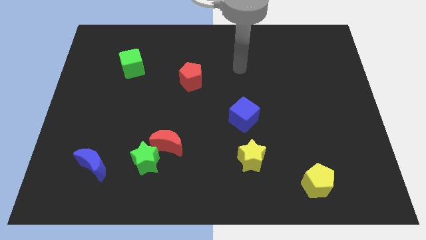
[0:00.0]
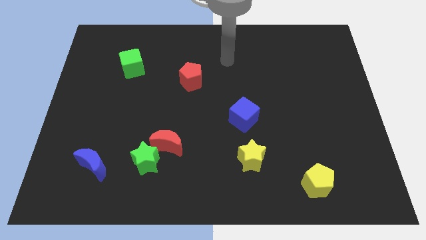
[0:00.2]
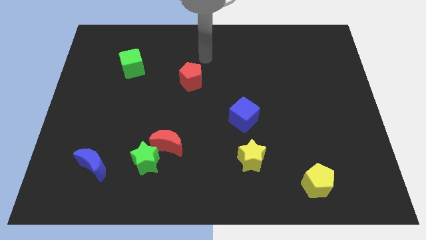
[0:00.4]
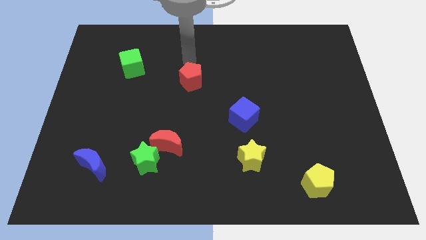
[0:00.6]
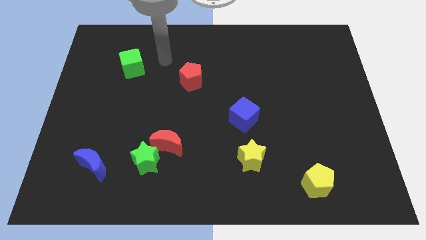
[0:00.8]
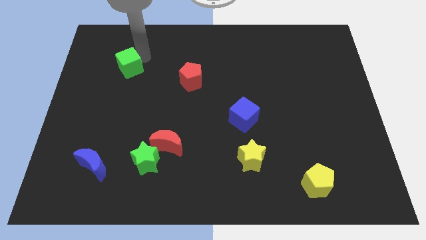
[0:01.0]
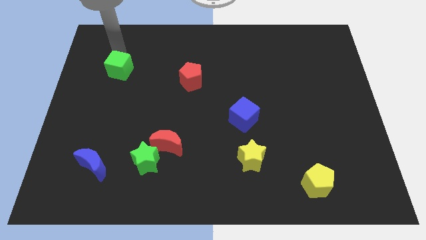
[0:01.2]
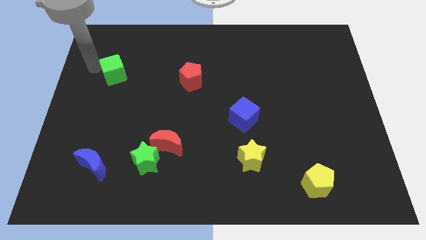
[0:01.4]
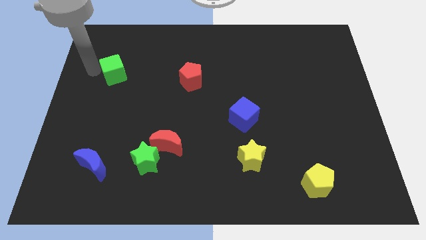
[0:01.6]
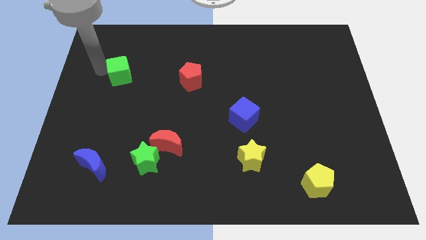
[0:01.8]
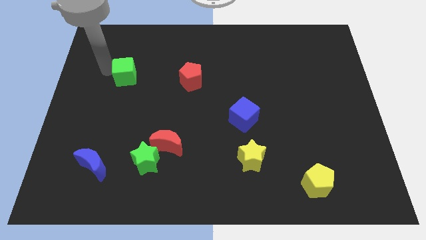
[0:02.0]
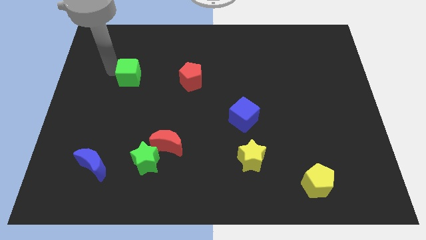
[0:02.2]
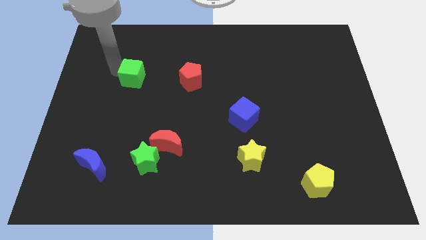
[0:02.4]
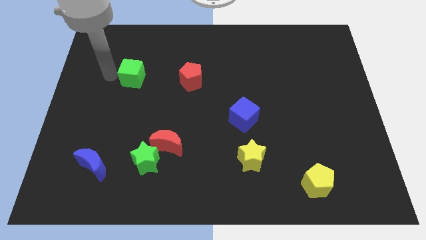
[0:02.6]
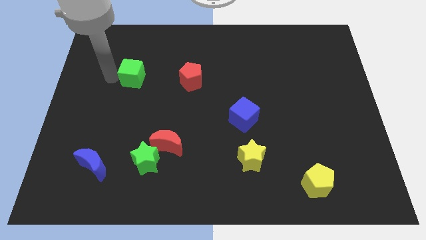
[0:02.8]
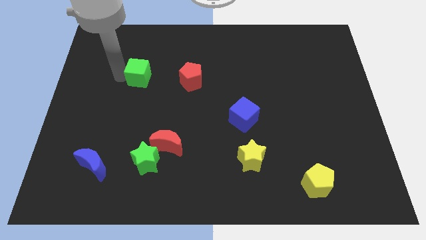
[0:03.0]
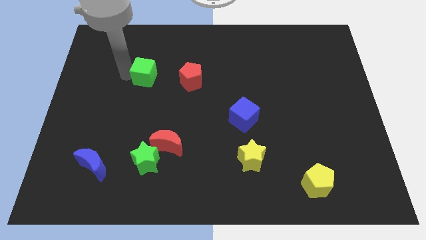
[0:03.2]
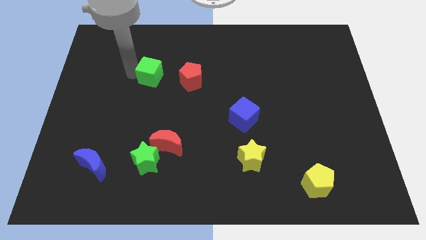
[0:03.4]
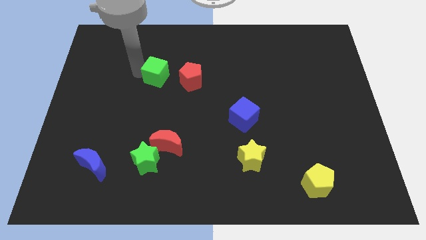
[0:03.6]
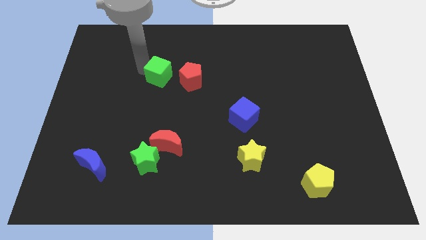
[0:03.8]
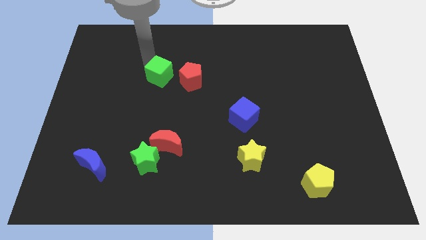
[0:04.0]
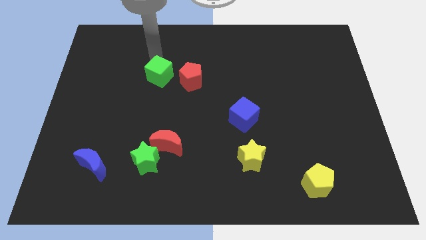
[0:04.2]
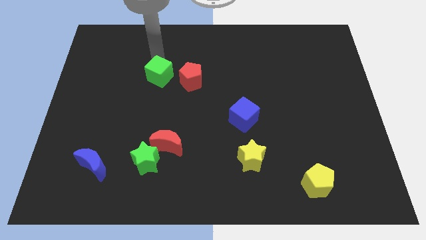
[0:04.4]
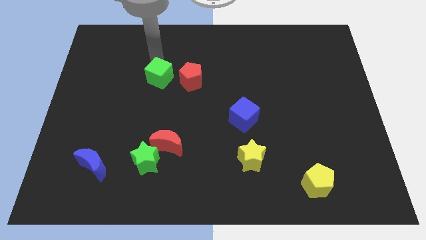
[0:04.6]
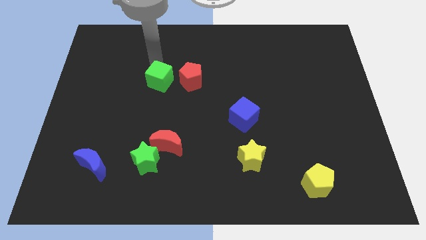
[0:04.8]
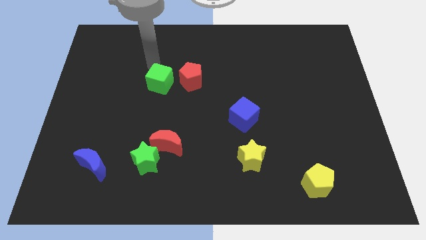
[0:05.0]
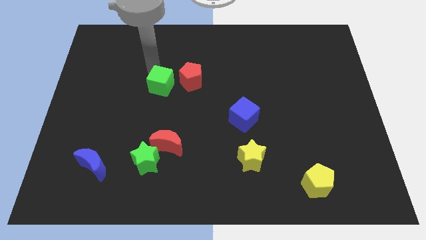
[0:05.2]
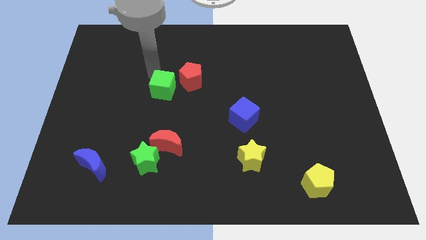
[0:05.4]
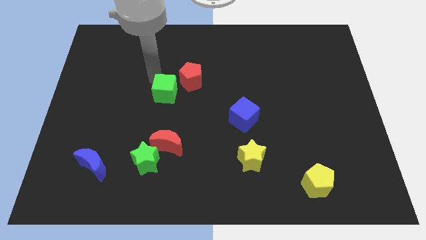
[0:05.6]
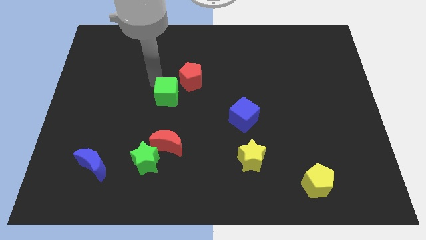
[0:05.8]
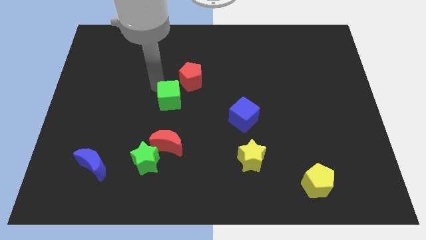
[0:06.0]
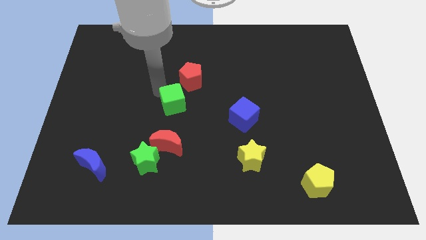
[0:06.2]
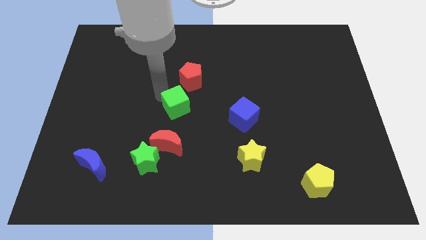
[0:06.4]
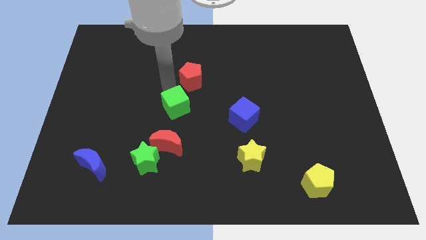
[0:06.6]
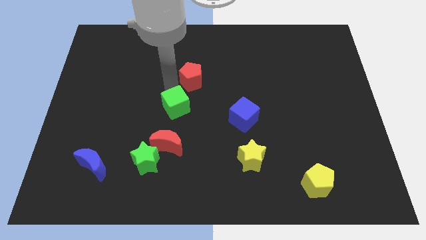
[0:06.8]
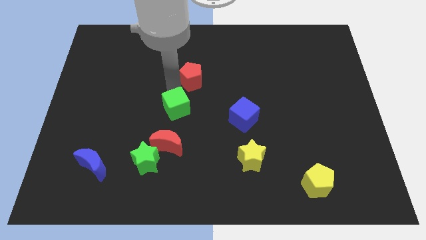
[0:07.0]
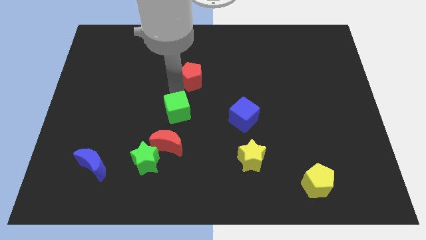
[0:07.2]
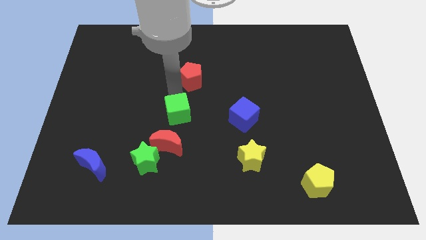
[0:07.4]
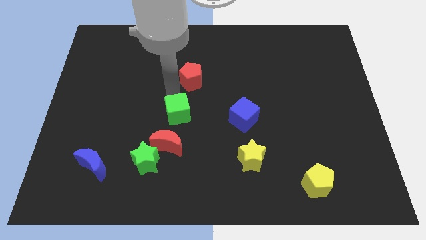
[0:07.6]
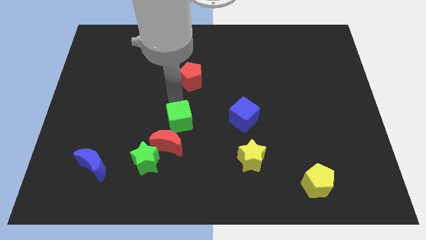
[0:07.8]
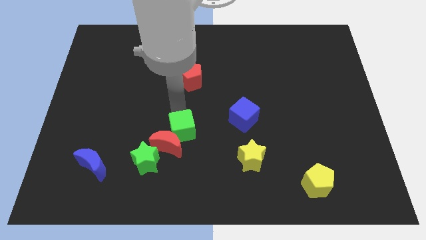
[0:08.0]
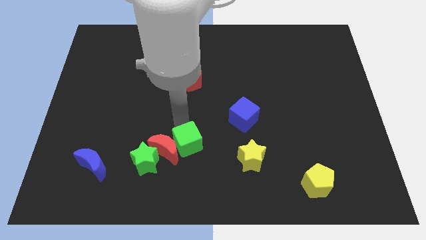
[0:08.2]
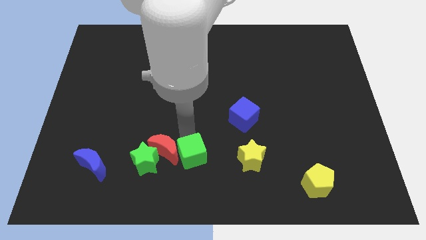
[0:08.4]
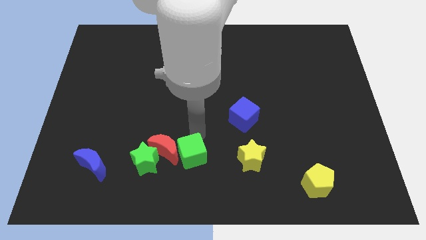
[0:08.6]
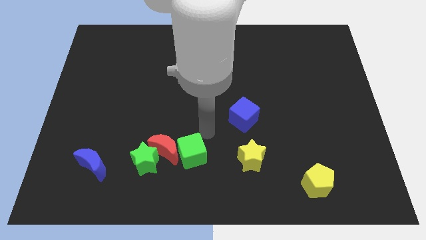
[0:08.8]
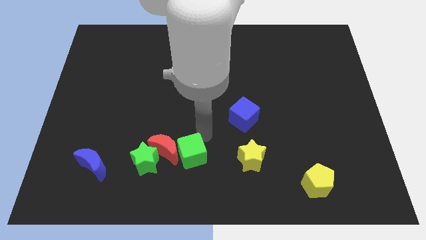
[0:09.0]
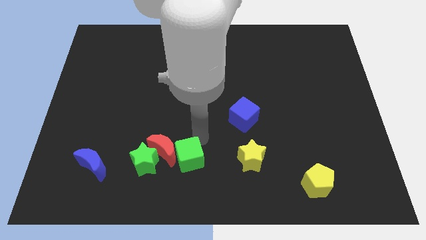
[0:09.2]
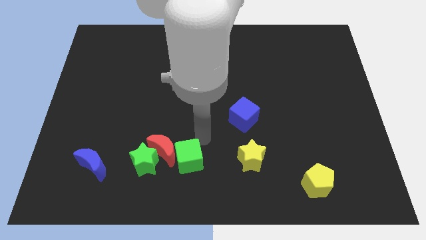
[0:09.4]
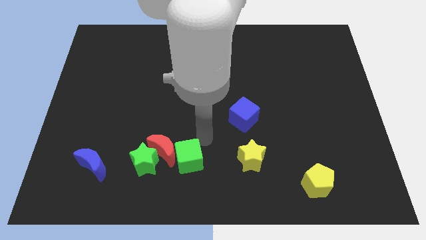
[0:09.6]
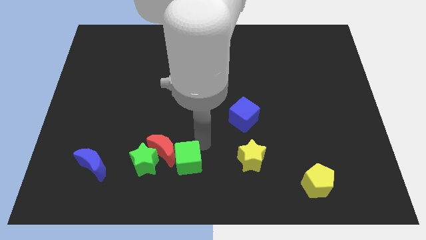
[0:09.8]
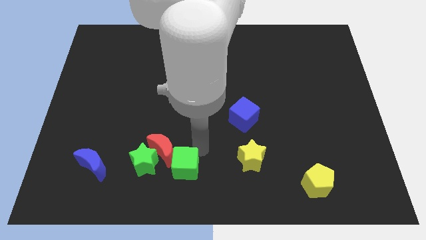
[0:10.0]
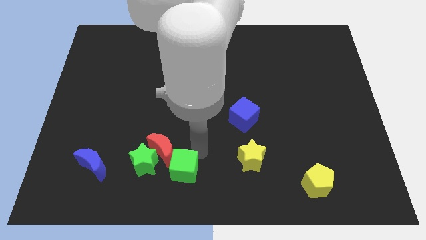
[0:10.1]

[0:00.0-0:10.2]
slide the green cube diagonally down and to the right of the green star

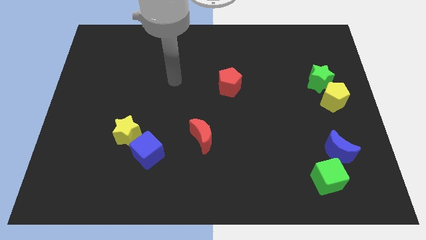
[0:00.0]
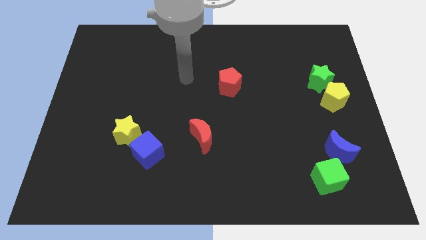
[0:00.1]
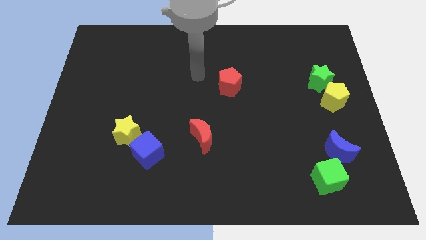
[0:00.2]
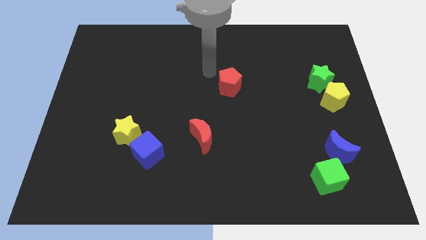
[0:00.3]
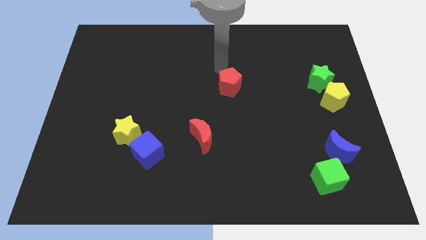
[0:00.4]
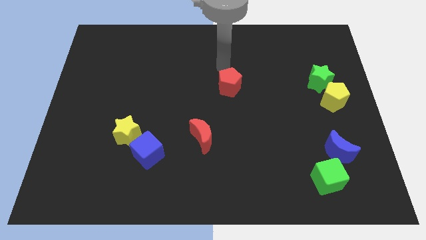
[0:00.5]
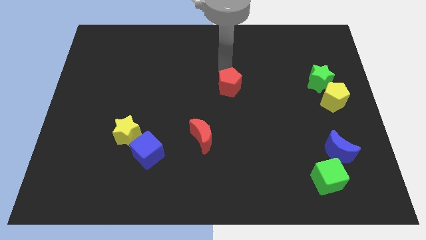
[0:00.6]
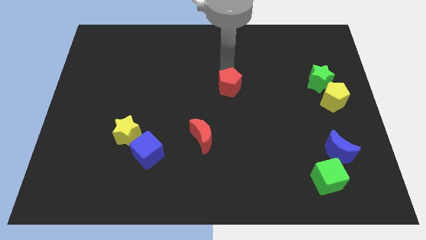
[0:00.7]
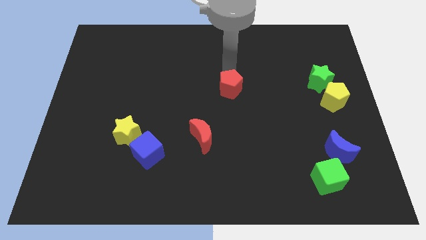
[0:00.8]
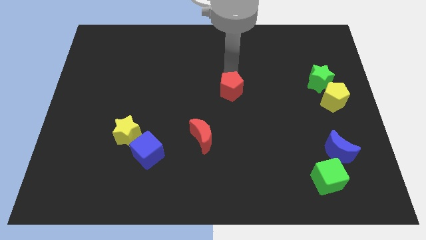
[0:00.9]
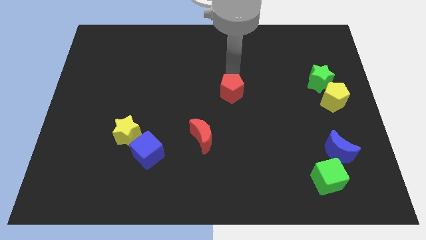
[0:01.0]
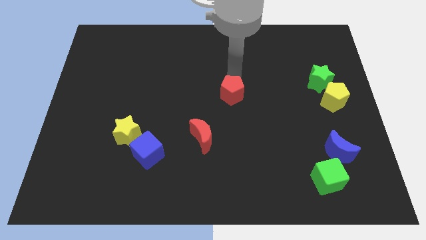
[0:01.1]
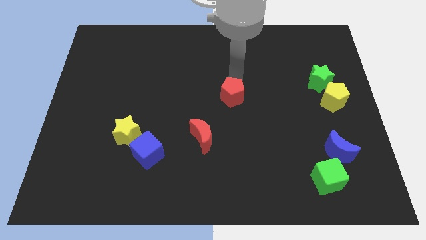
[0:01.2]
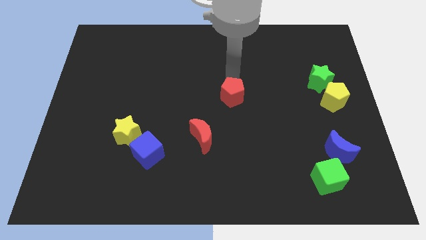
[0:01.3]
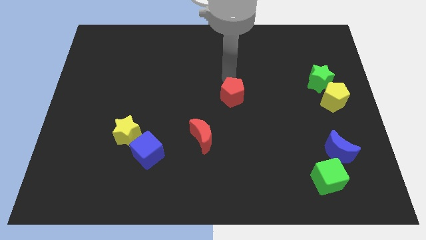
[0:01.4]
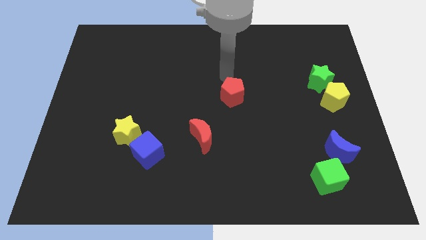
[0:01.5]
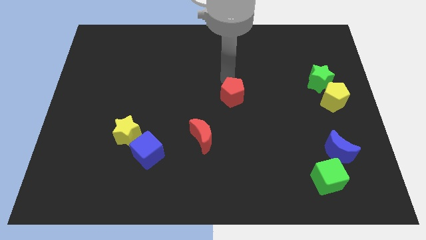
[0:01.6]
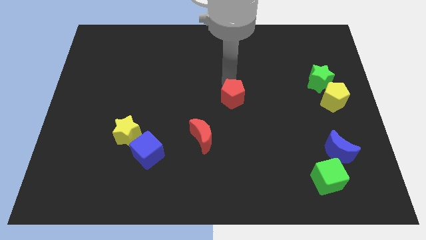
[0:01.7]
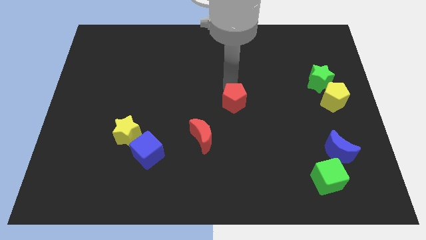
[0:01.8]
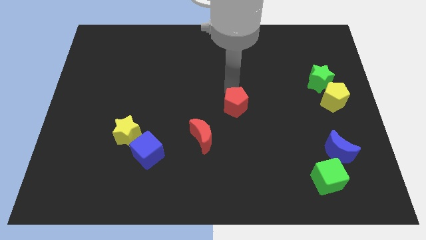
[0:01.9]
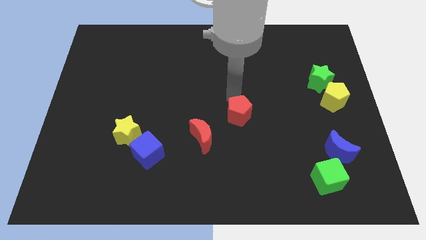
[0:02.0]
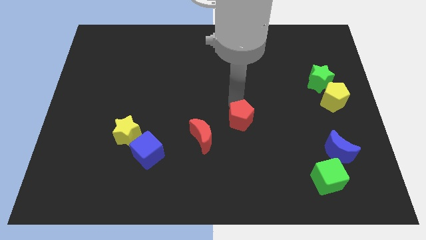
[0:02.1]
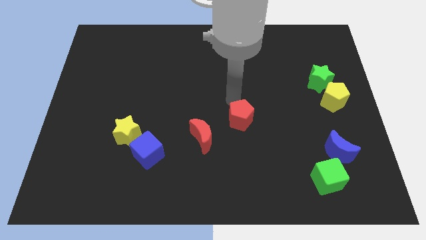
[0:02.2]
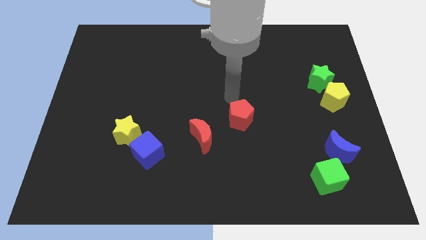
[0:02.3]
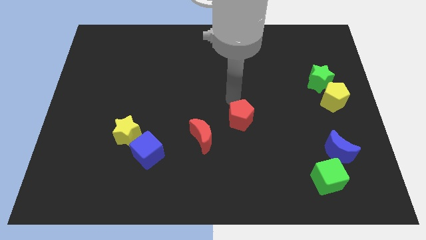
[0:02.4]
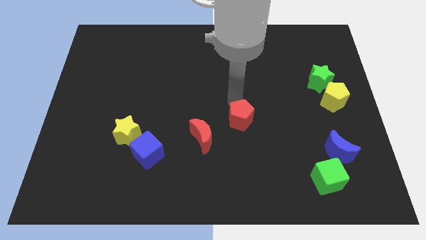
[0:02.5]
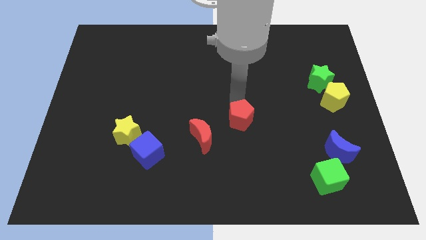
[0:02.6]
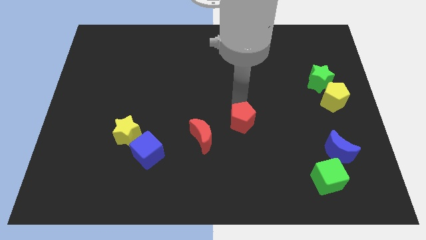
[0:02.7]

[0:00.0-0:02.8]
slide the red pentagon to the right side of the red moon

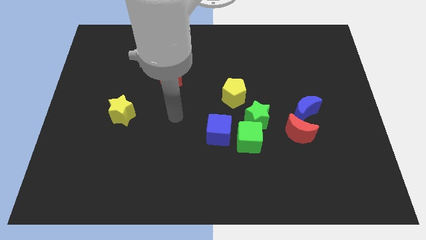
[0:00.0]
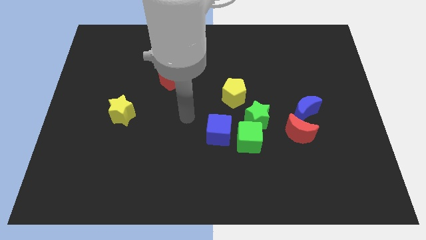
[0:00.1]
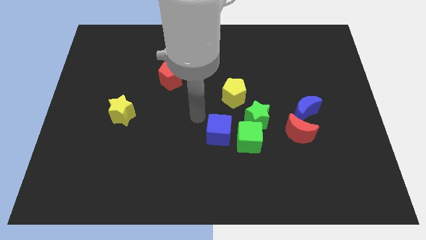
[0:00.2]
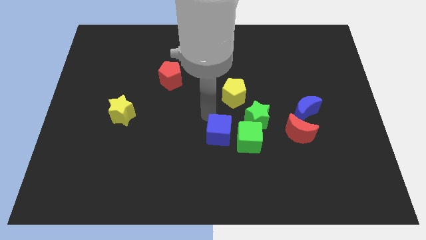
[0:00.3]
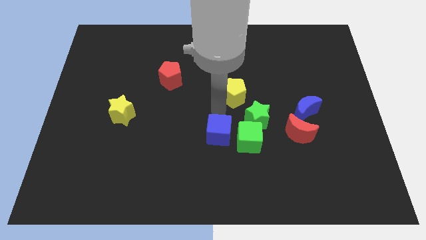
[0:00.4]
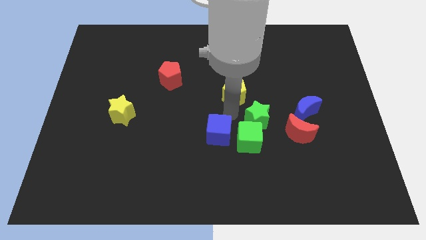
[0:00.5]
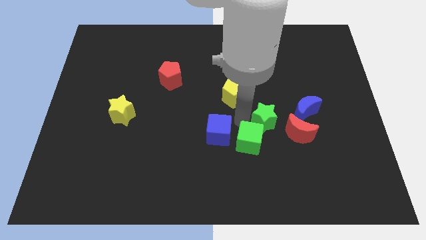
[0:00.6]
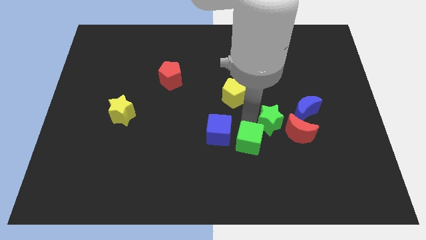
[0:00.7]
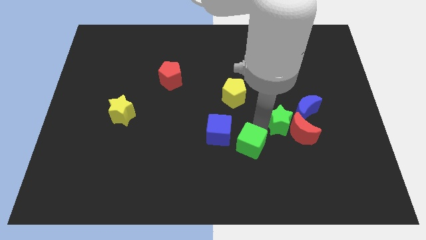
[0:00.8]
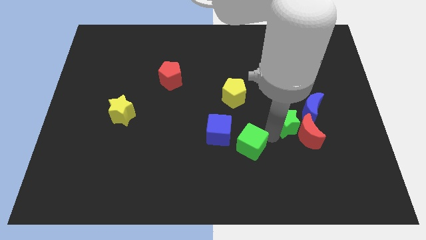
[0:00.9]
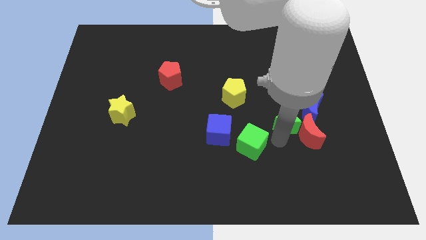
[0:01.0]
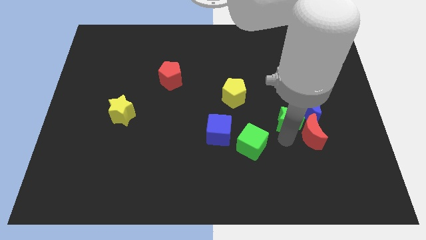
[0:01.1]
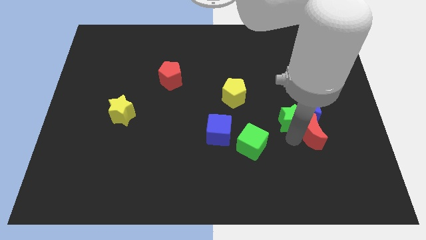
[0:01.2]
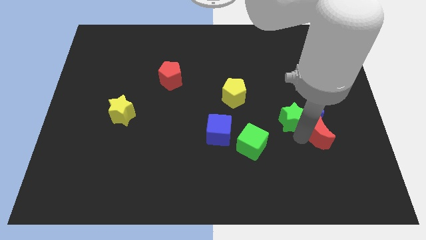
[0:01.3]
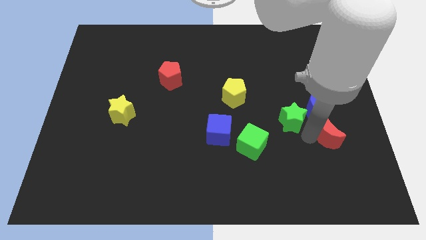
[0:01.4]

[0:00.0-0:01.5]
put the red moon to the bottom right of the blue moon
